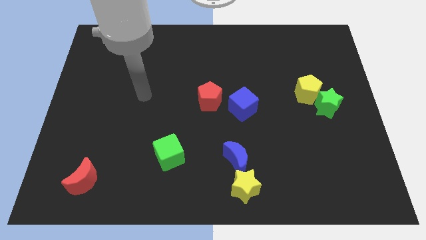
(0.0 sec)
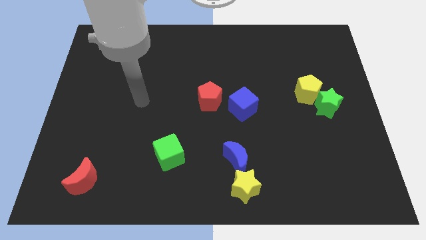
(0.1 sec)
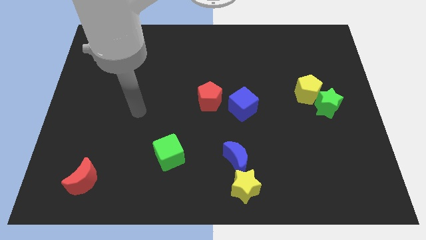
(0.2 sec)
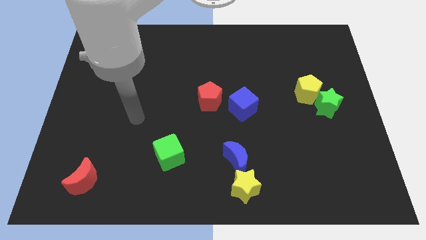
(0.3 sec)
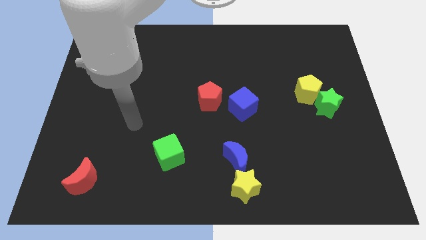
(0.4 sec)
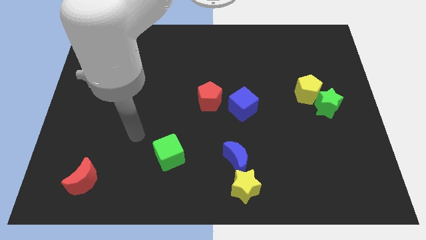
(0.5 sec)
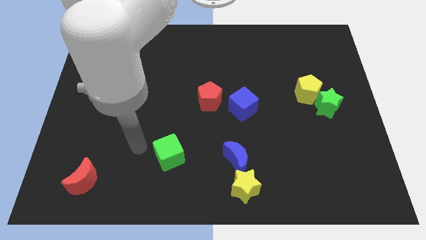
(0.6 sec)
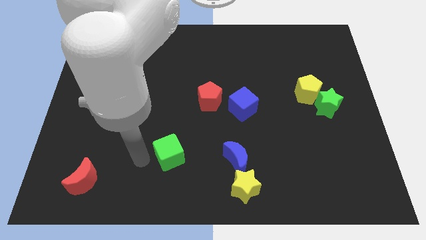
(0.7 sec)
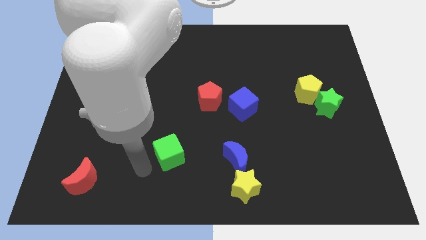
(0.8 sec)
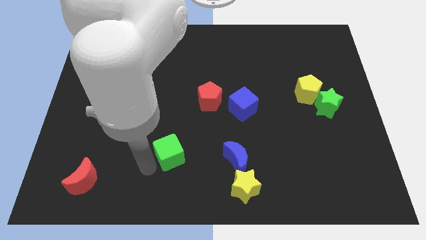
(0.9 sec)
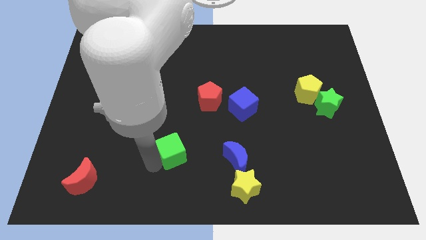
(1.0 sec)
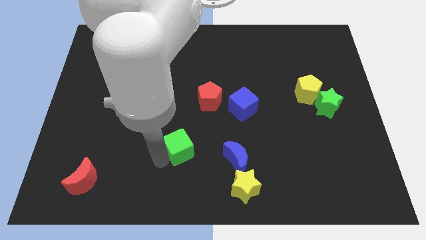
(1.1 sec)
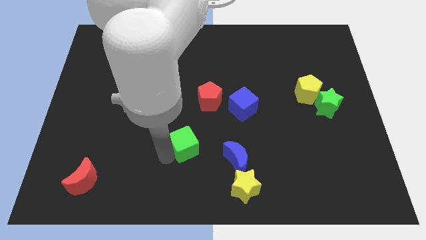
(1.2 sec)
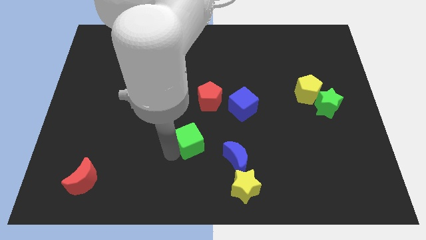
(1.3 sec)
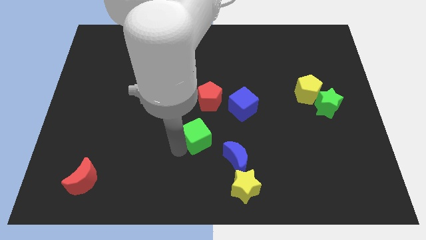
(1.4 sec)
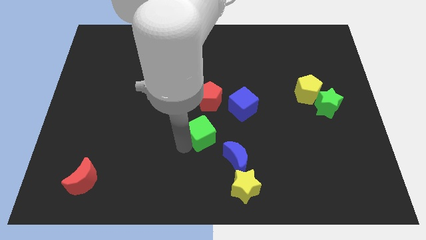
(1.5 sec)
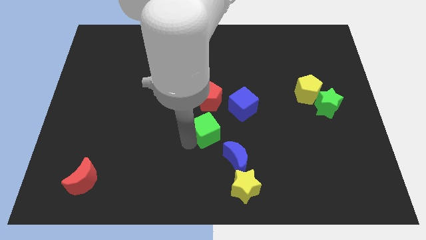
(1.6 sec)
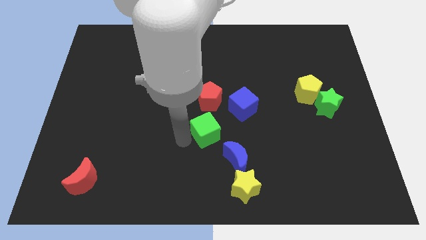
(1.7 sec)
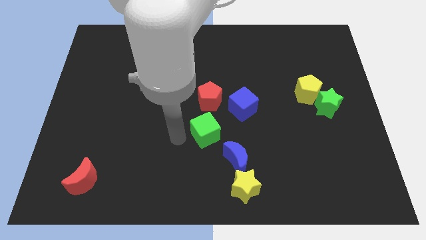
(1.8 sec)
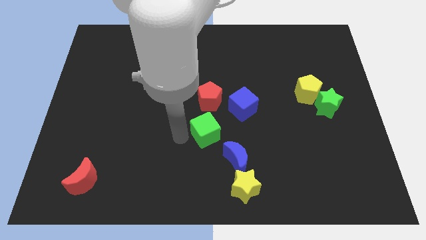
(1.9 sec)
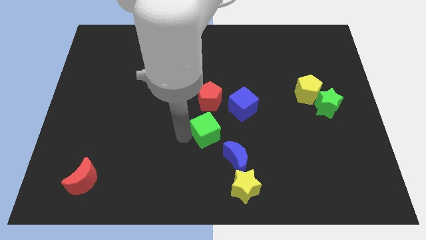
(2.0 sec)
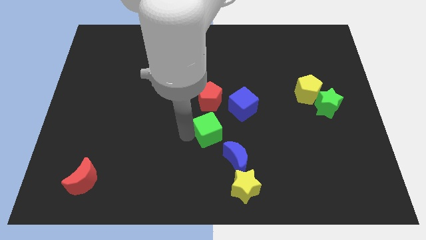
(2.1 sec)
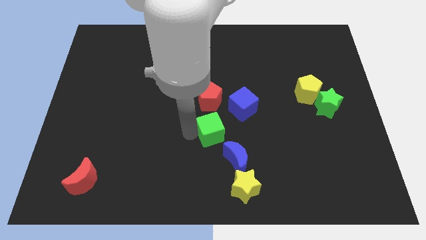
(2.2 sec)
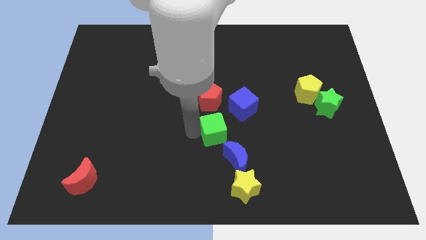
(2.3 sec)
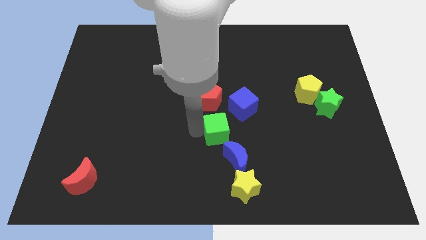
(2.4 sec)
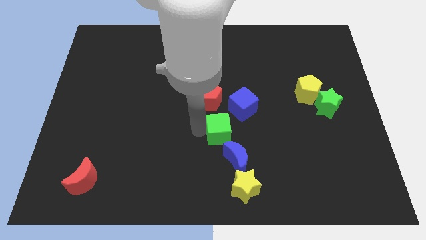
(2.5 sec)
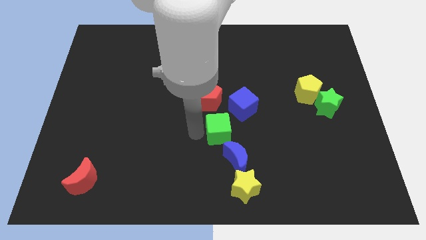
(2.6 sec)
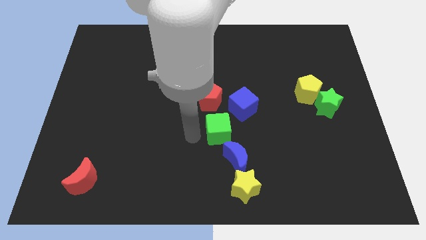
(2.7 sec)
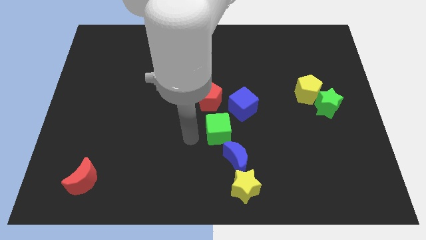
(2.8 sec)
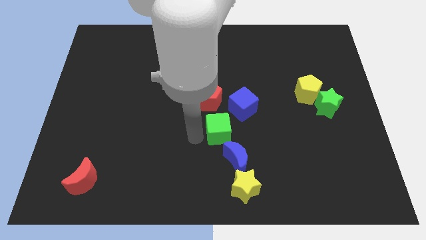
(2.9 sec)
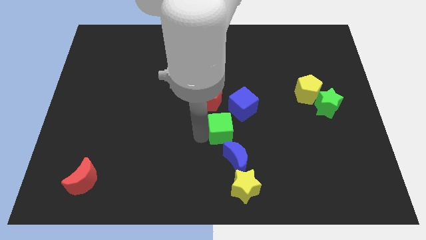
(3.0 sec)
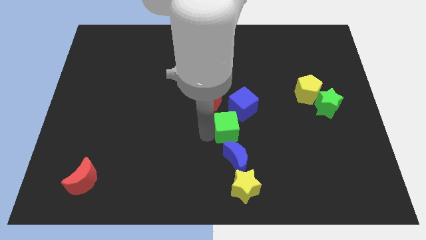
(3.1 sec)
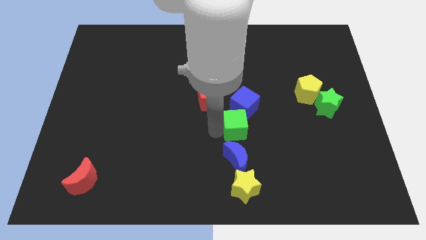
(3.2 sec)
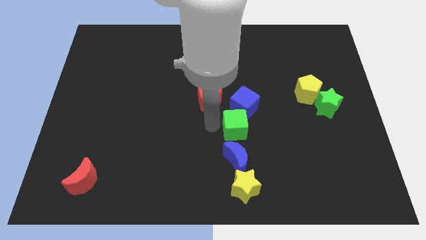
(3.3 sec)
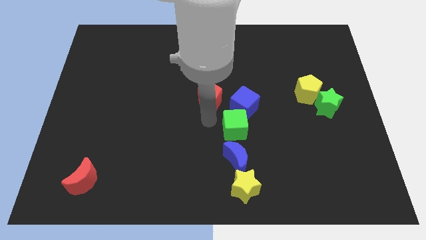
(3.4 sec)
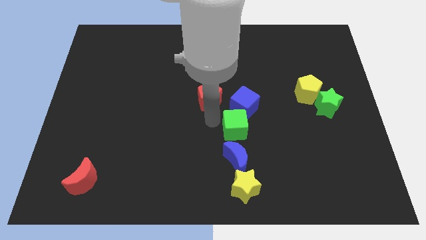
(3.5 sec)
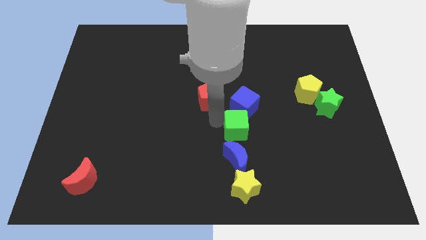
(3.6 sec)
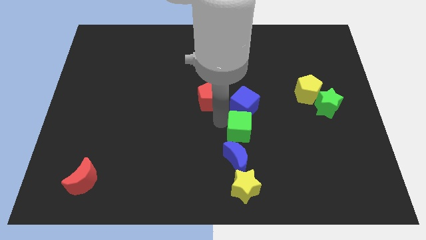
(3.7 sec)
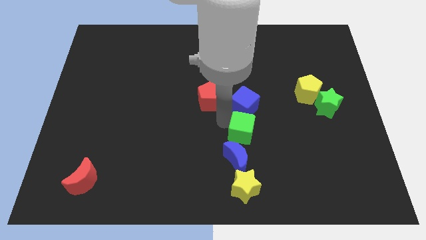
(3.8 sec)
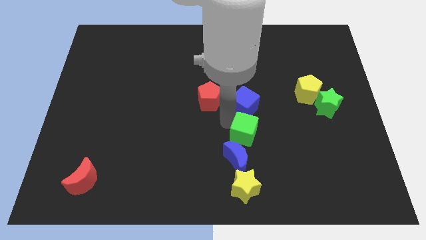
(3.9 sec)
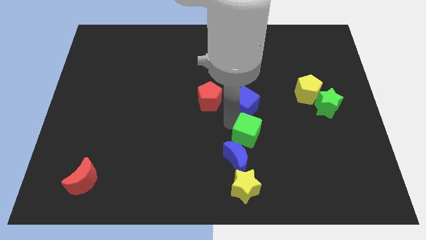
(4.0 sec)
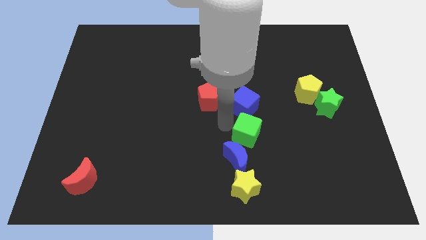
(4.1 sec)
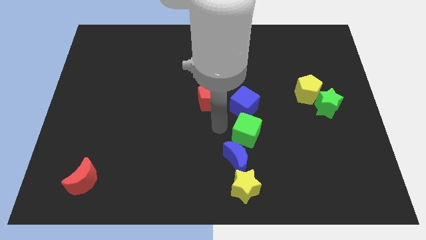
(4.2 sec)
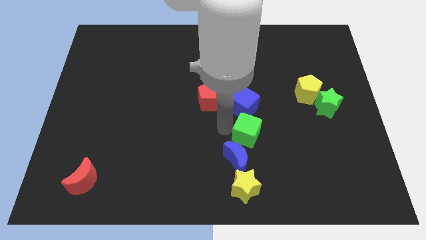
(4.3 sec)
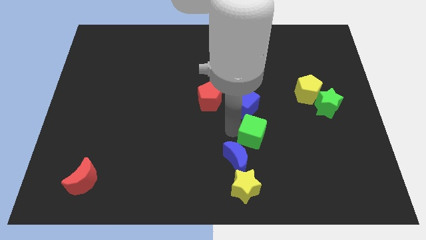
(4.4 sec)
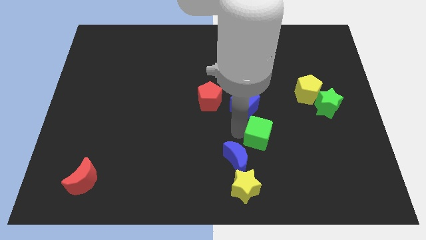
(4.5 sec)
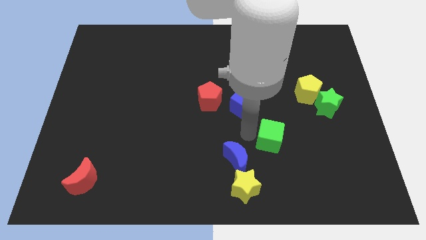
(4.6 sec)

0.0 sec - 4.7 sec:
move the green cube right

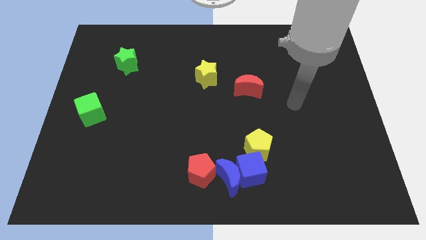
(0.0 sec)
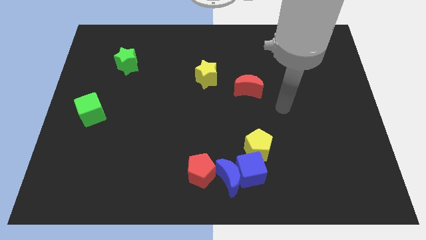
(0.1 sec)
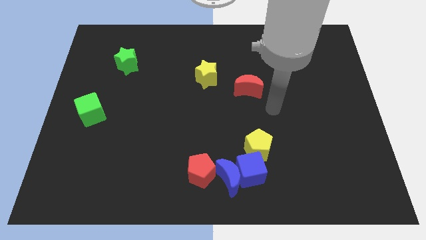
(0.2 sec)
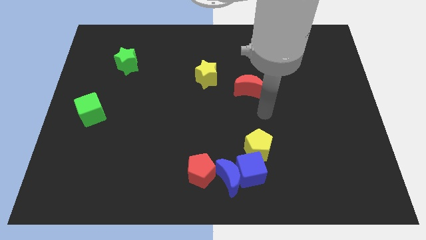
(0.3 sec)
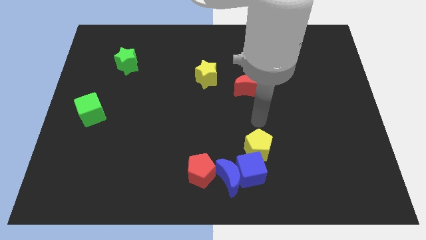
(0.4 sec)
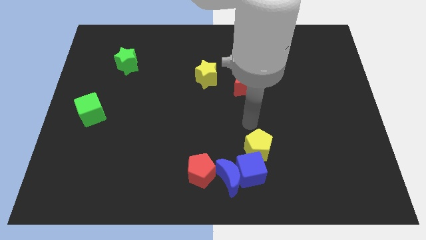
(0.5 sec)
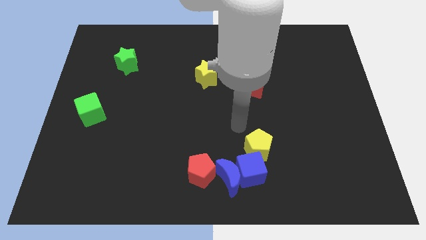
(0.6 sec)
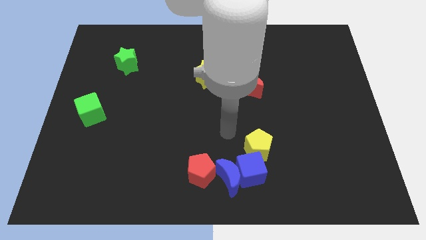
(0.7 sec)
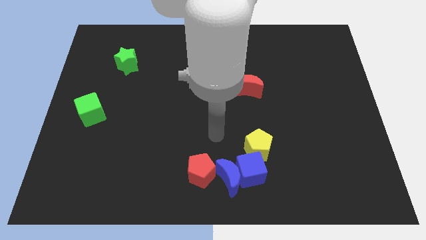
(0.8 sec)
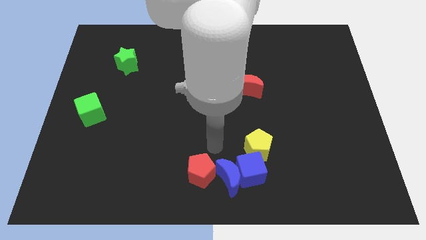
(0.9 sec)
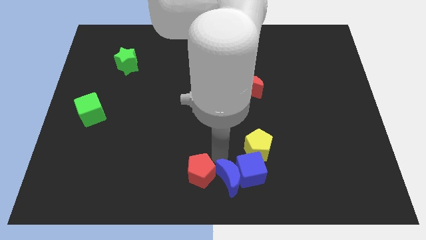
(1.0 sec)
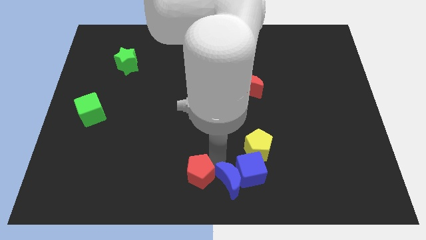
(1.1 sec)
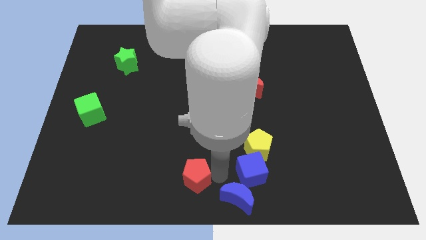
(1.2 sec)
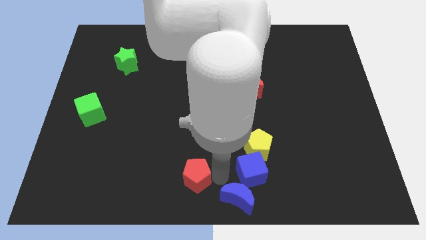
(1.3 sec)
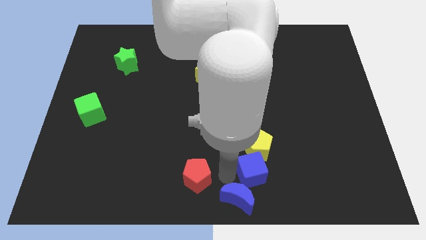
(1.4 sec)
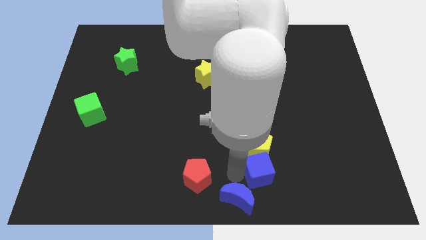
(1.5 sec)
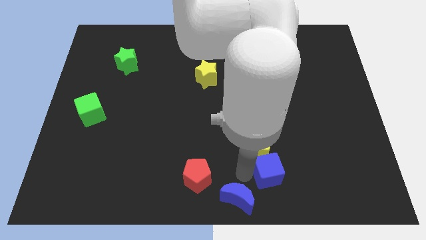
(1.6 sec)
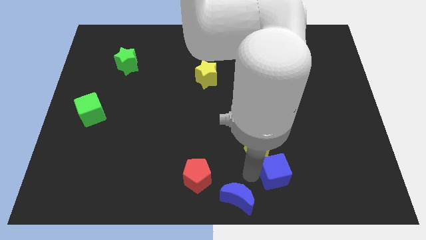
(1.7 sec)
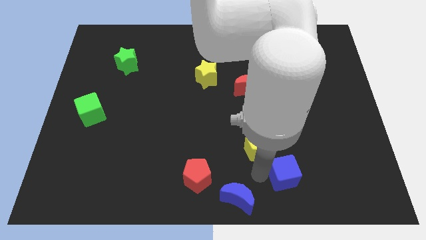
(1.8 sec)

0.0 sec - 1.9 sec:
slide the blue cube a little to the right

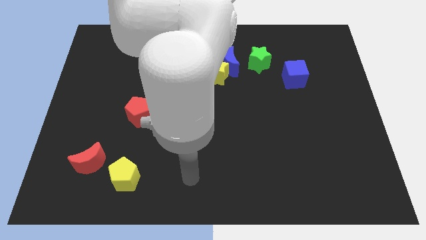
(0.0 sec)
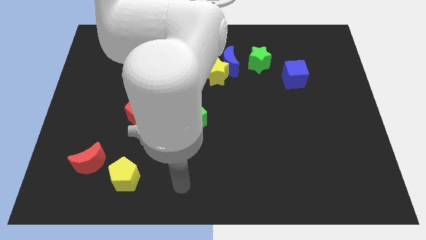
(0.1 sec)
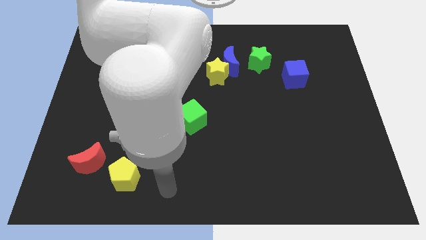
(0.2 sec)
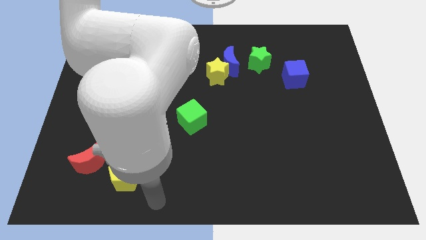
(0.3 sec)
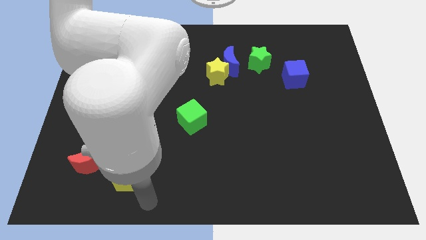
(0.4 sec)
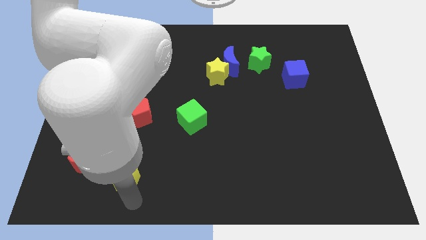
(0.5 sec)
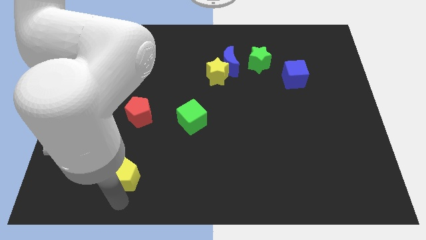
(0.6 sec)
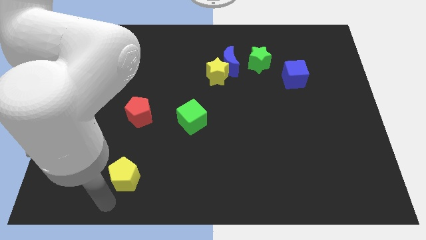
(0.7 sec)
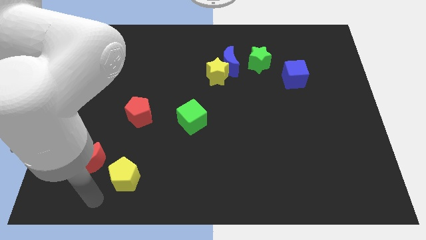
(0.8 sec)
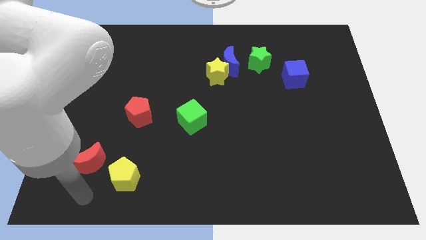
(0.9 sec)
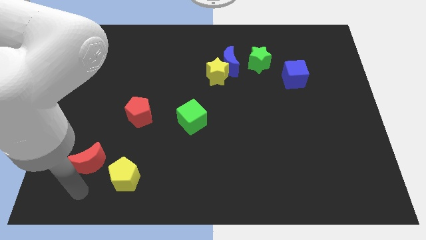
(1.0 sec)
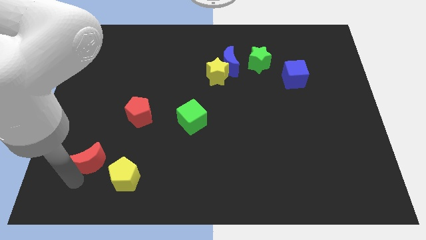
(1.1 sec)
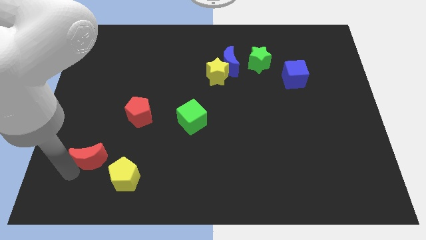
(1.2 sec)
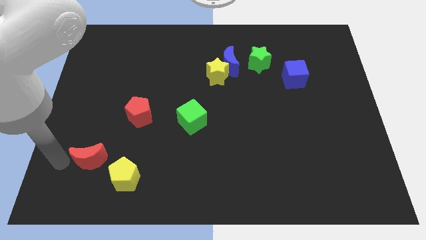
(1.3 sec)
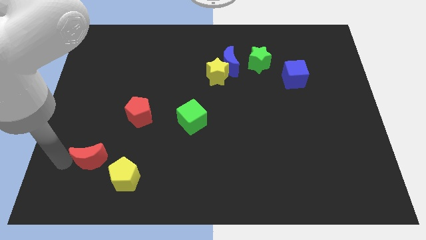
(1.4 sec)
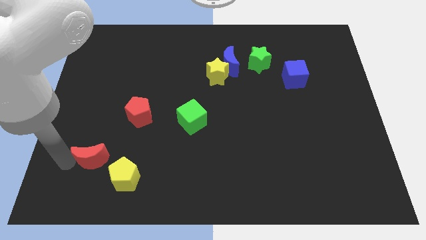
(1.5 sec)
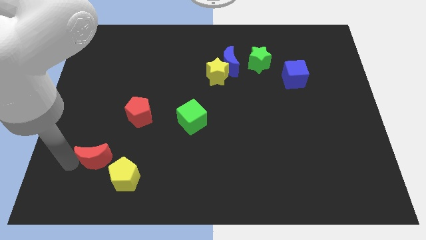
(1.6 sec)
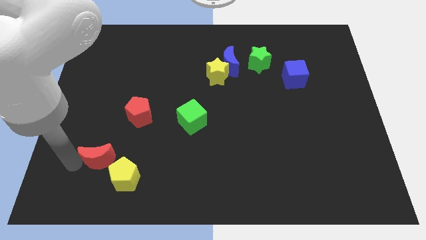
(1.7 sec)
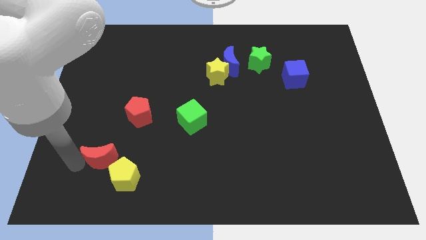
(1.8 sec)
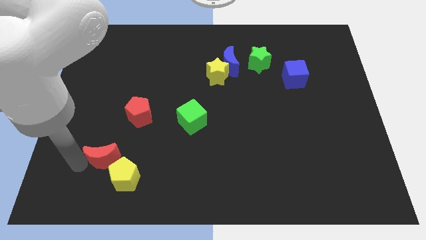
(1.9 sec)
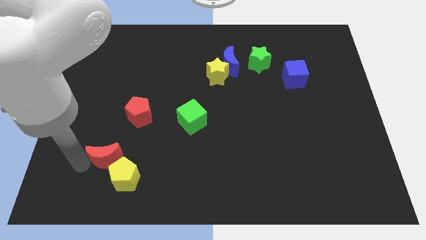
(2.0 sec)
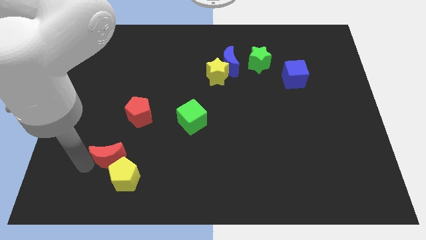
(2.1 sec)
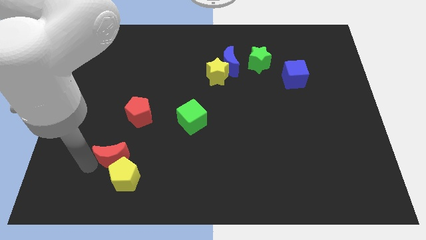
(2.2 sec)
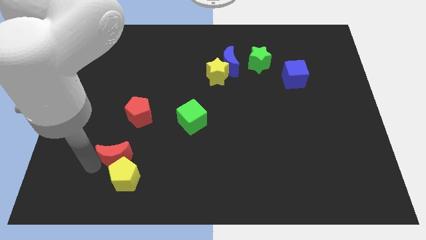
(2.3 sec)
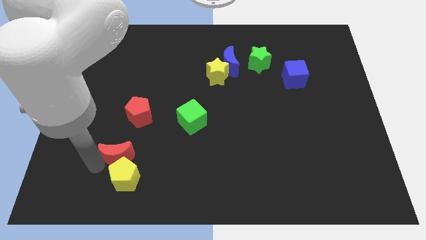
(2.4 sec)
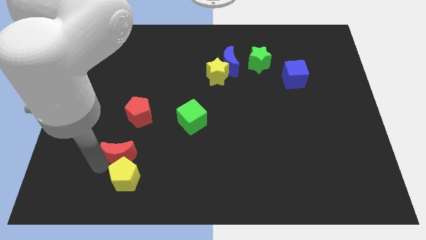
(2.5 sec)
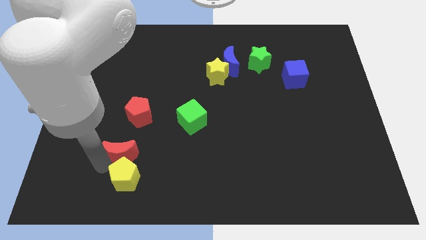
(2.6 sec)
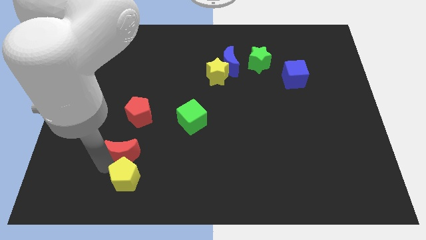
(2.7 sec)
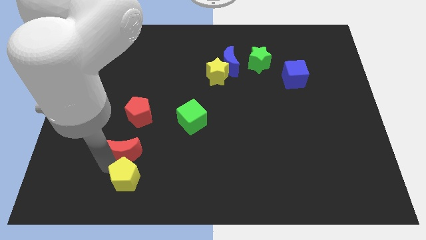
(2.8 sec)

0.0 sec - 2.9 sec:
move the red moon right somewhat
